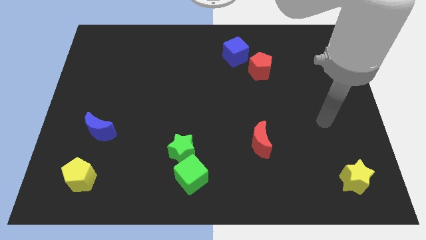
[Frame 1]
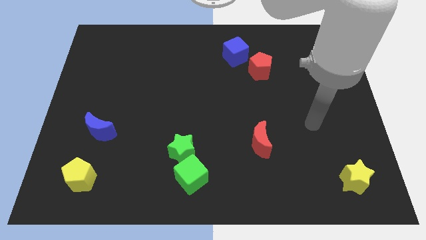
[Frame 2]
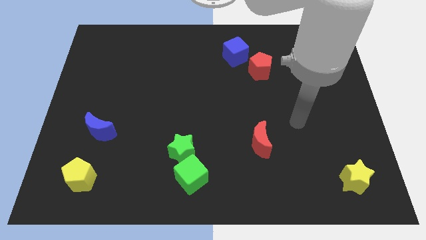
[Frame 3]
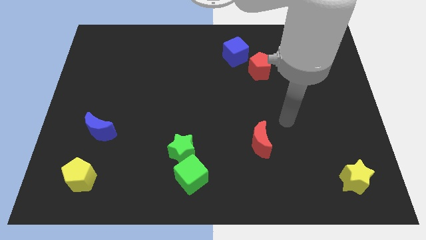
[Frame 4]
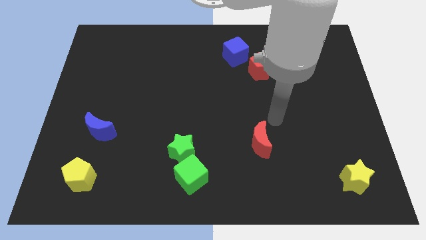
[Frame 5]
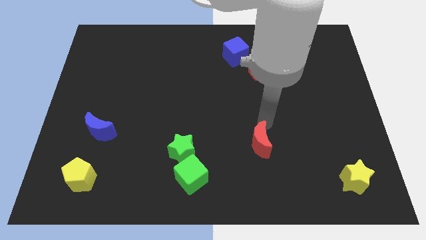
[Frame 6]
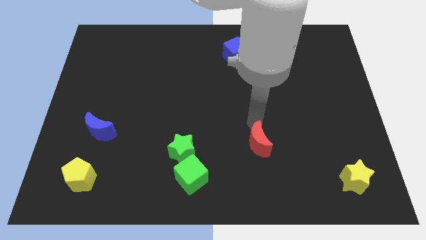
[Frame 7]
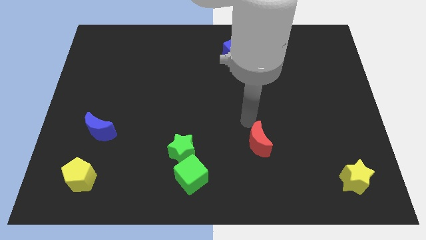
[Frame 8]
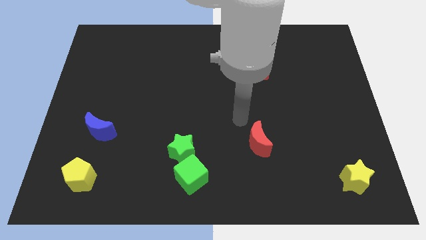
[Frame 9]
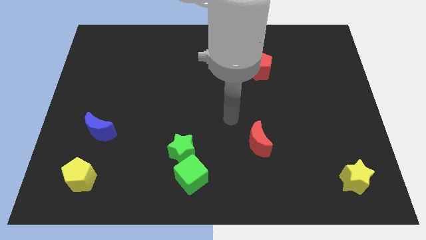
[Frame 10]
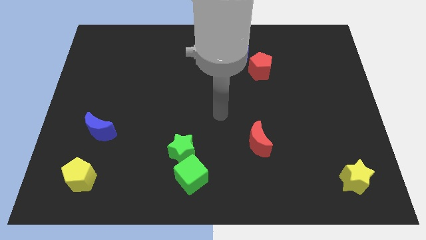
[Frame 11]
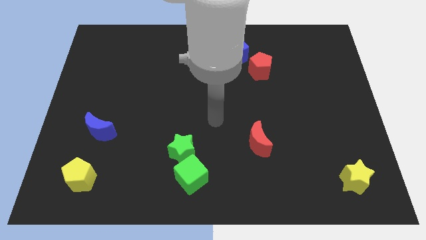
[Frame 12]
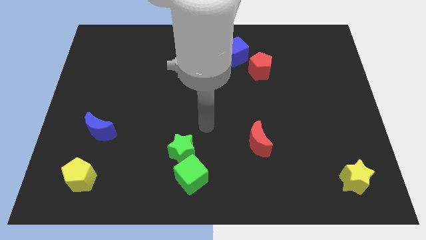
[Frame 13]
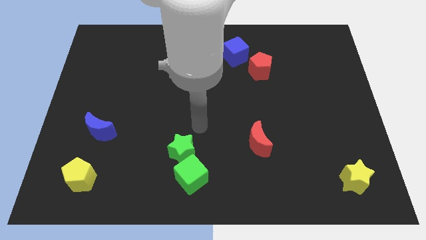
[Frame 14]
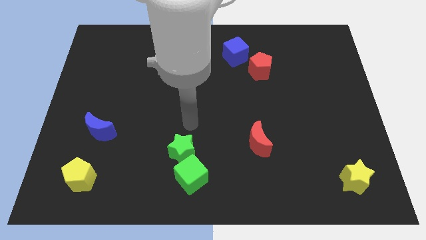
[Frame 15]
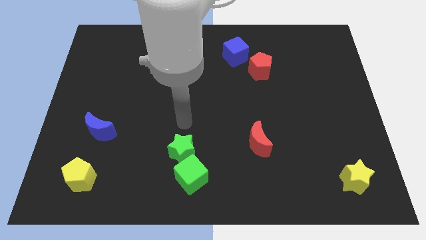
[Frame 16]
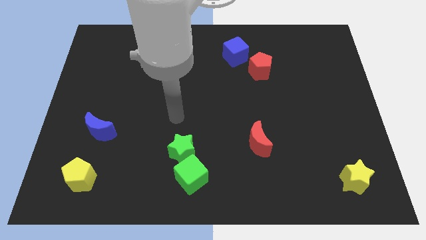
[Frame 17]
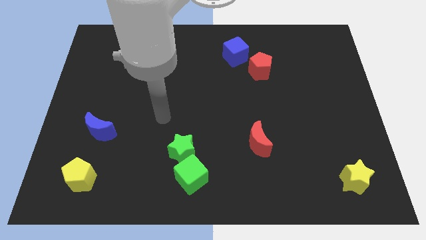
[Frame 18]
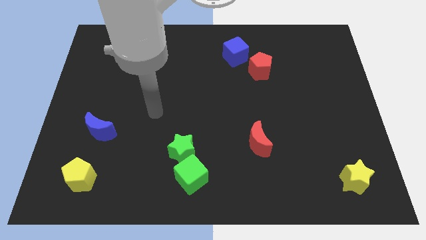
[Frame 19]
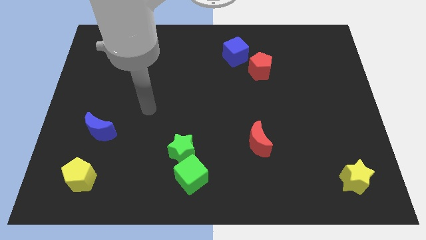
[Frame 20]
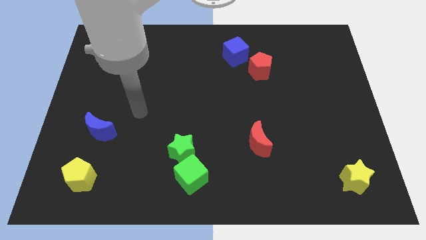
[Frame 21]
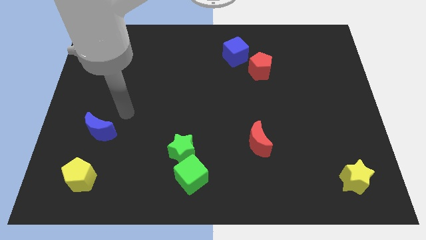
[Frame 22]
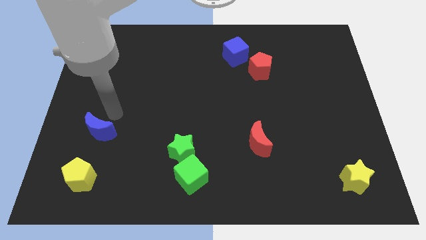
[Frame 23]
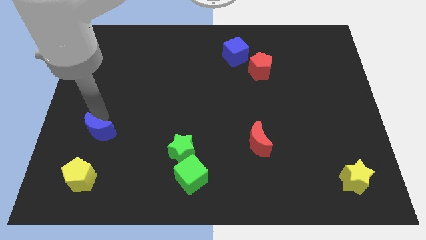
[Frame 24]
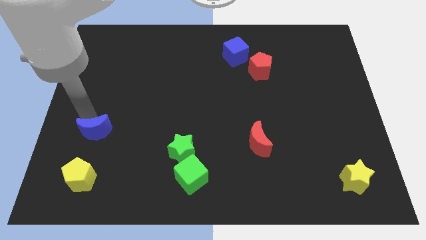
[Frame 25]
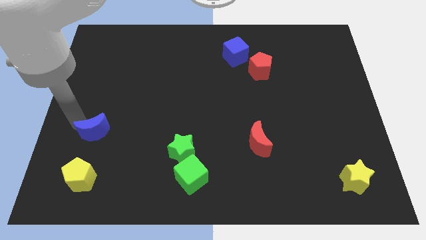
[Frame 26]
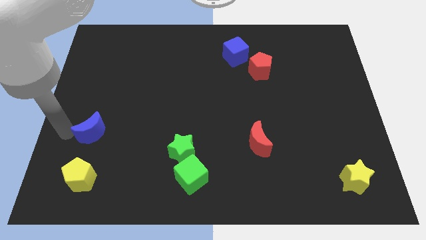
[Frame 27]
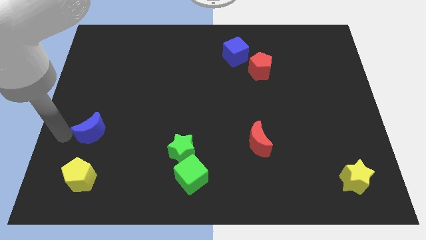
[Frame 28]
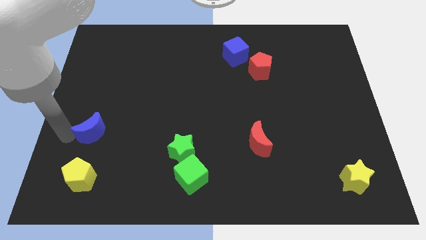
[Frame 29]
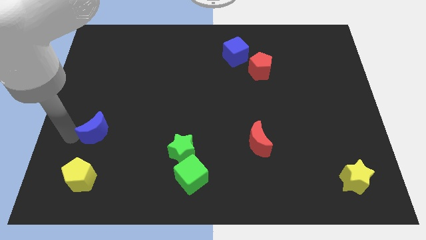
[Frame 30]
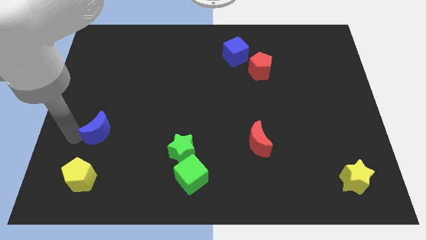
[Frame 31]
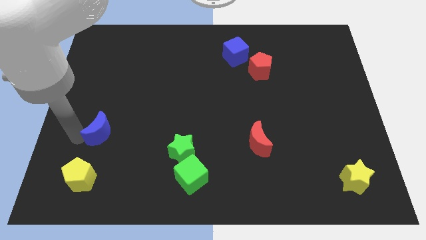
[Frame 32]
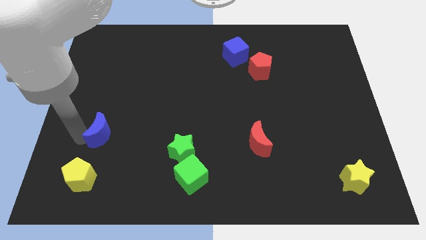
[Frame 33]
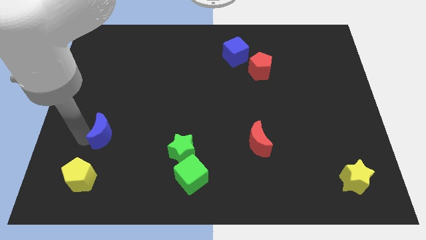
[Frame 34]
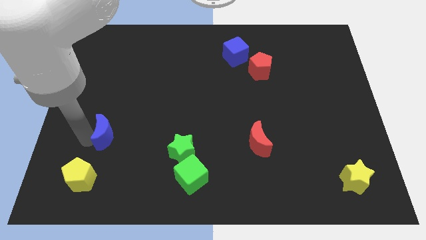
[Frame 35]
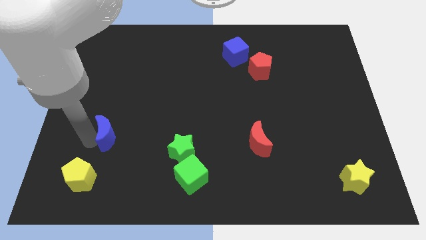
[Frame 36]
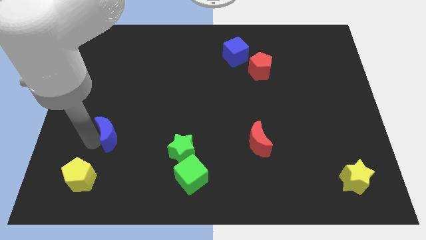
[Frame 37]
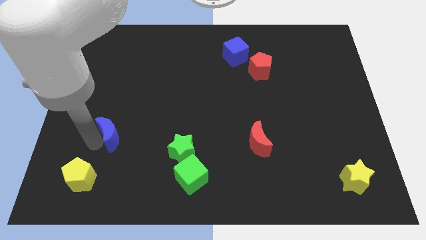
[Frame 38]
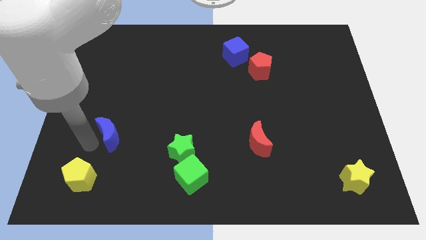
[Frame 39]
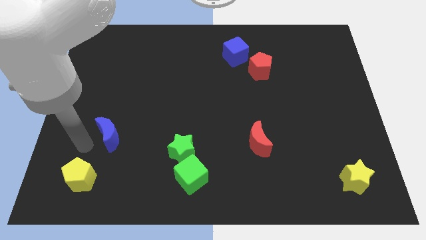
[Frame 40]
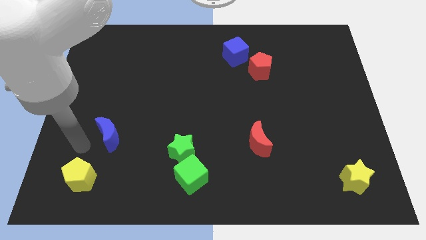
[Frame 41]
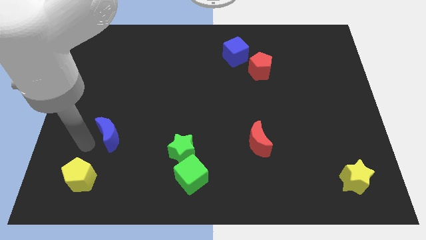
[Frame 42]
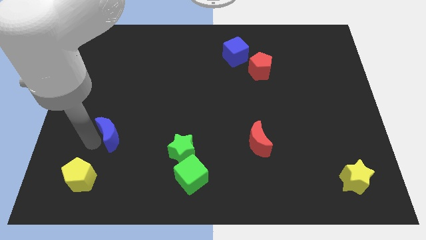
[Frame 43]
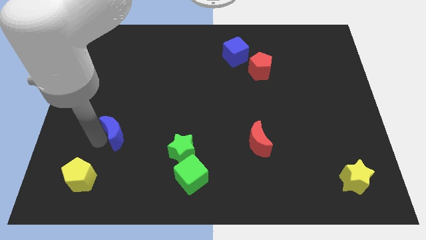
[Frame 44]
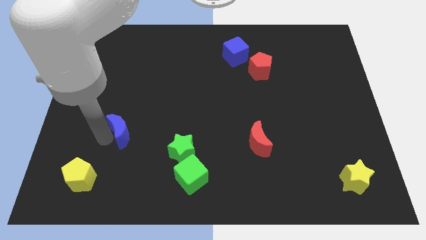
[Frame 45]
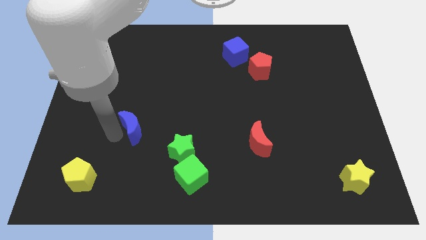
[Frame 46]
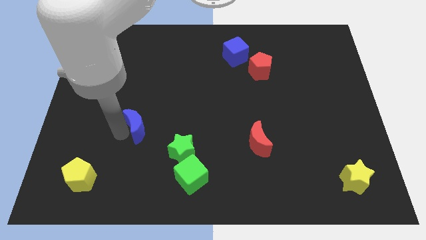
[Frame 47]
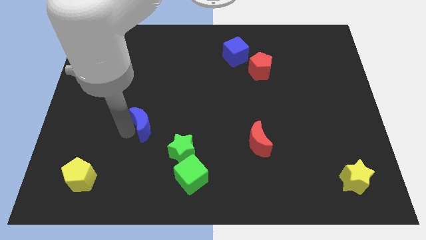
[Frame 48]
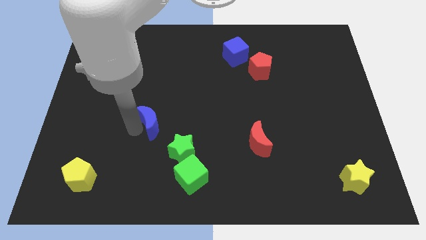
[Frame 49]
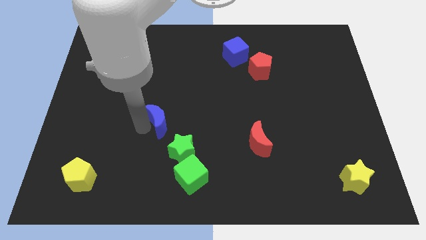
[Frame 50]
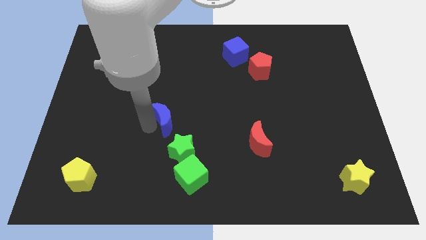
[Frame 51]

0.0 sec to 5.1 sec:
put the blue moon to the center

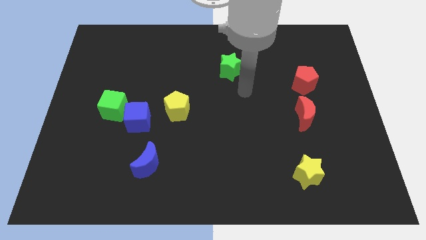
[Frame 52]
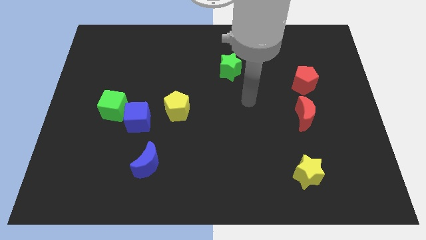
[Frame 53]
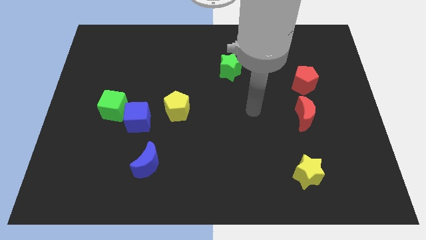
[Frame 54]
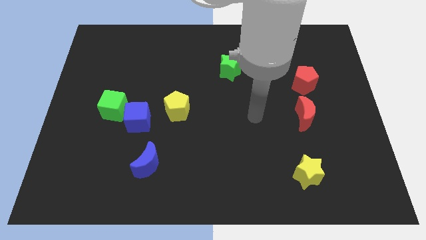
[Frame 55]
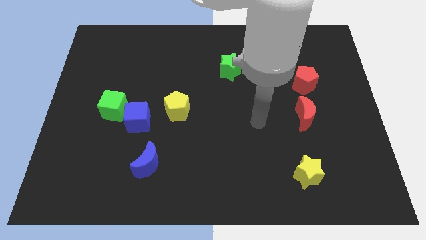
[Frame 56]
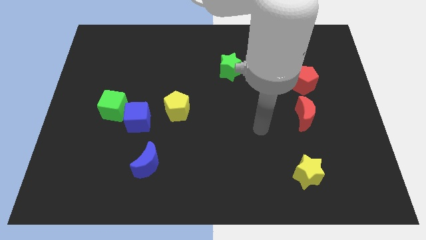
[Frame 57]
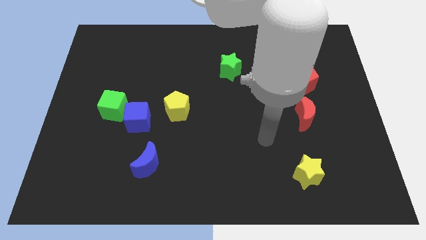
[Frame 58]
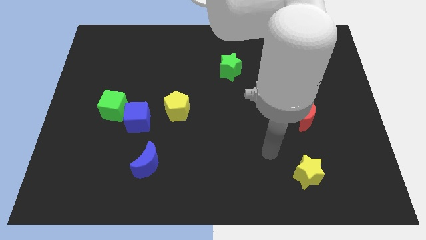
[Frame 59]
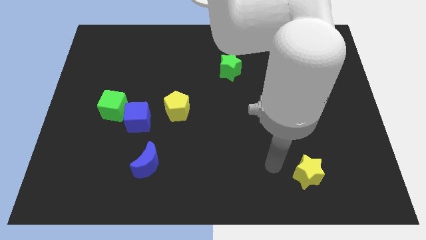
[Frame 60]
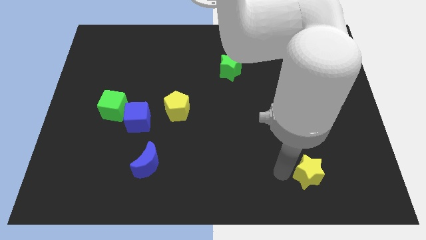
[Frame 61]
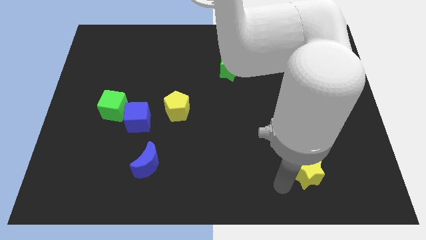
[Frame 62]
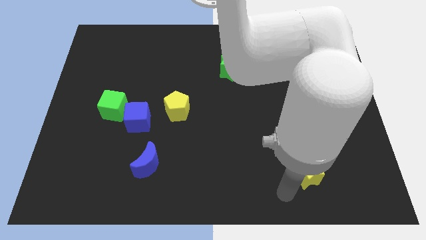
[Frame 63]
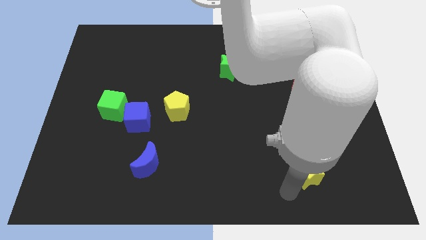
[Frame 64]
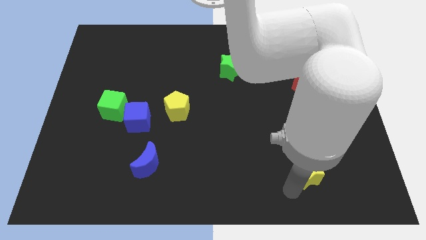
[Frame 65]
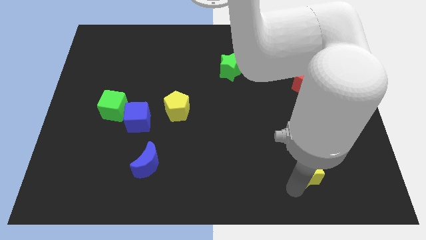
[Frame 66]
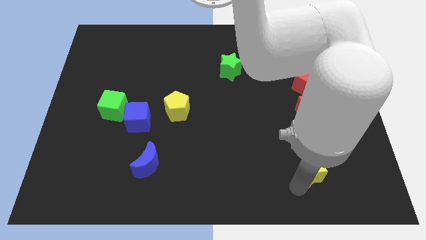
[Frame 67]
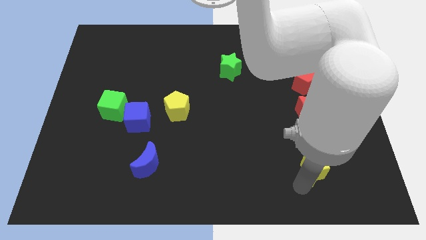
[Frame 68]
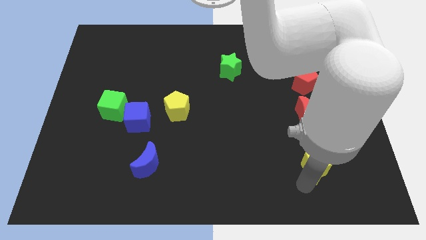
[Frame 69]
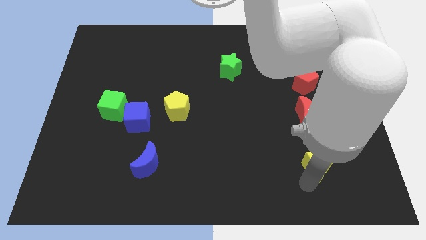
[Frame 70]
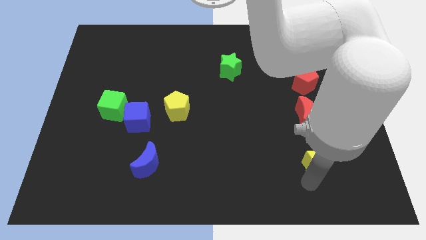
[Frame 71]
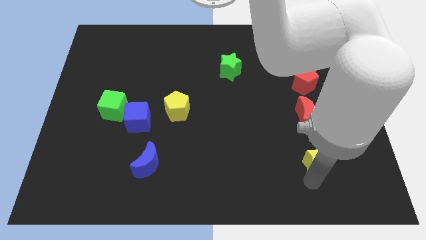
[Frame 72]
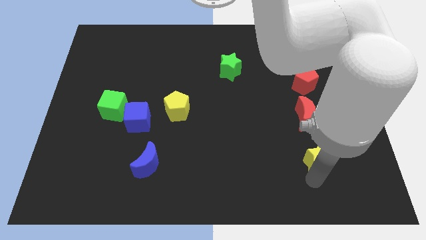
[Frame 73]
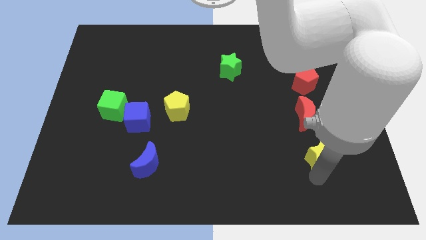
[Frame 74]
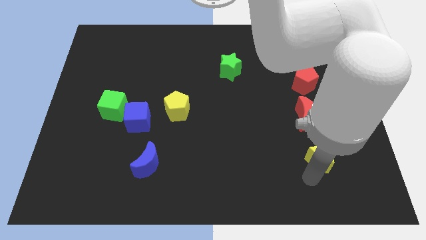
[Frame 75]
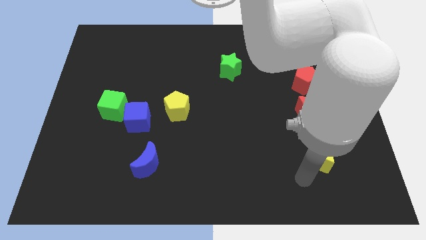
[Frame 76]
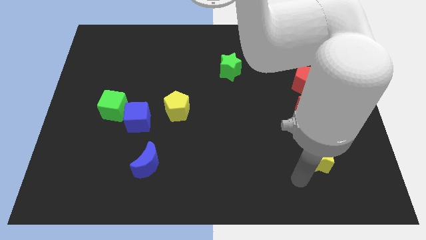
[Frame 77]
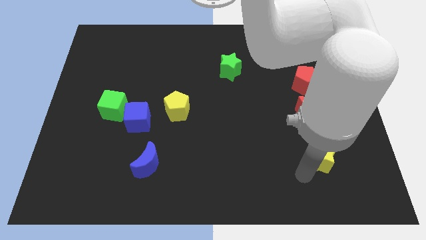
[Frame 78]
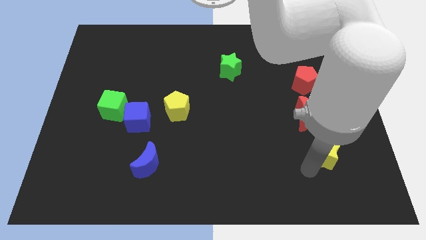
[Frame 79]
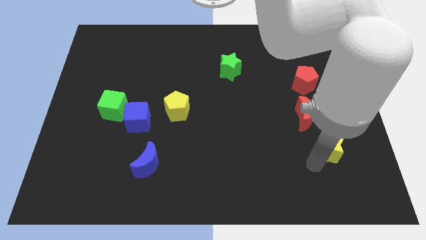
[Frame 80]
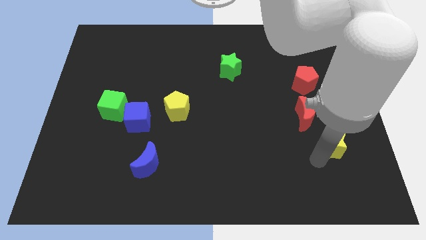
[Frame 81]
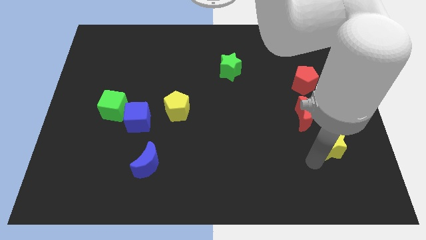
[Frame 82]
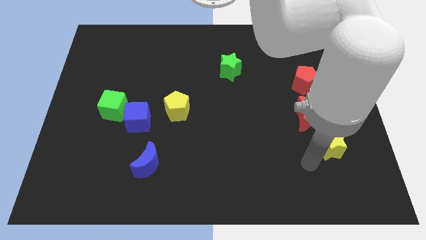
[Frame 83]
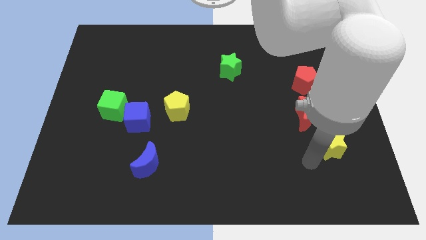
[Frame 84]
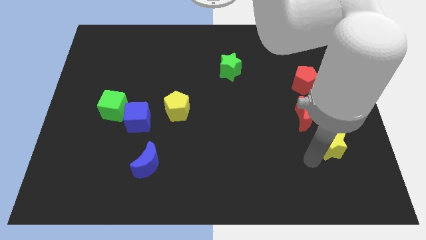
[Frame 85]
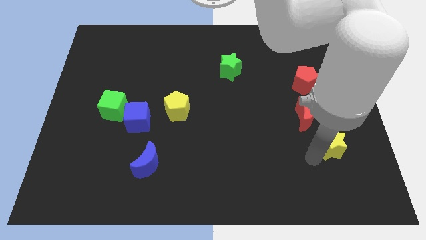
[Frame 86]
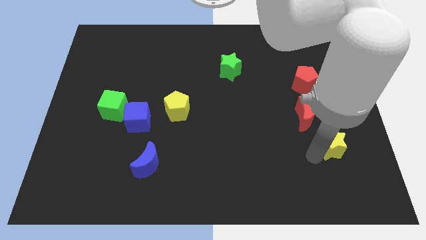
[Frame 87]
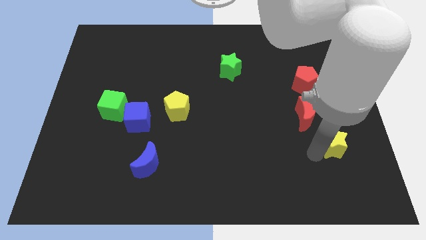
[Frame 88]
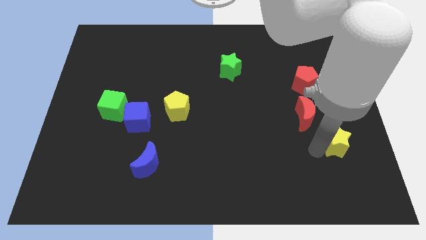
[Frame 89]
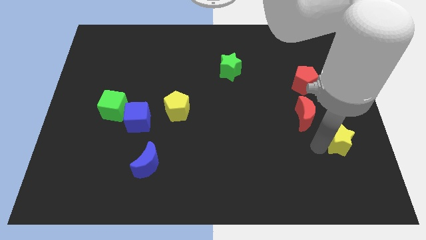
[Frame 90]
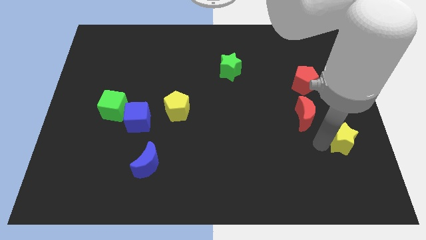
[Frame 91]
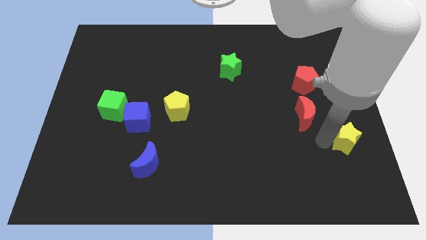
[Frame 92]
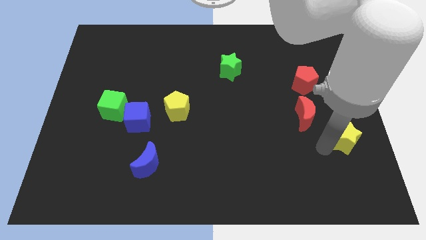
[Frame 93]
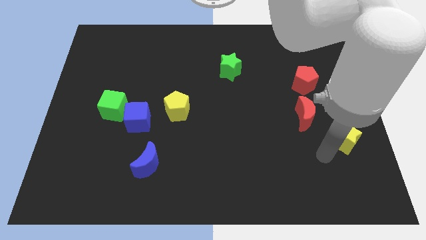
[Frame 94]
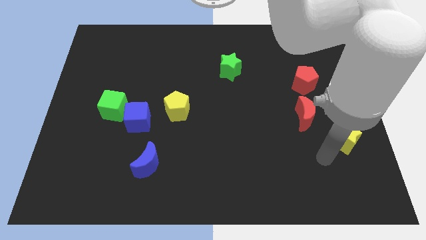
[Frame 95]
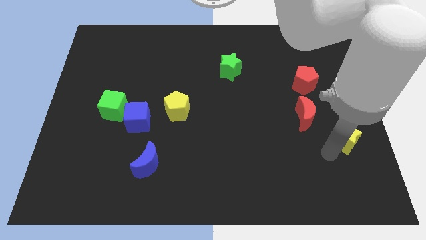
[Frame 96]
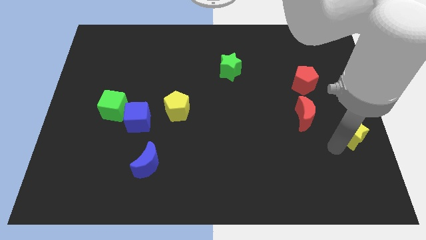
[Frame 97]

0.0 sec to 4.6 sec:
move the yellow star to the center right
